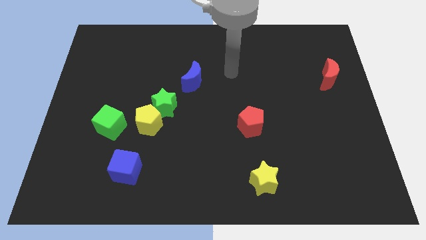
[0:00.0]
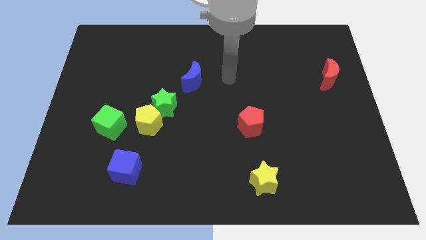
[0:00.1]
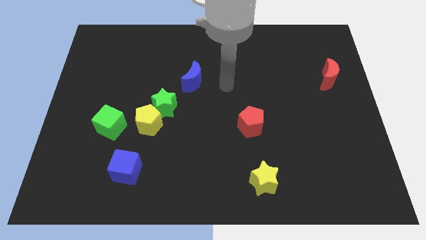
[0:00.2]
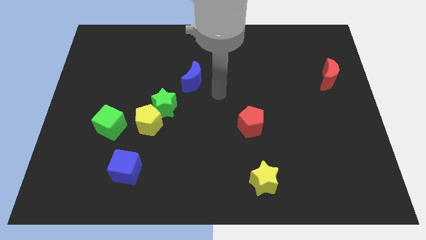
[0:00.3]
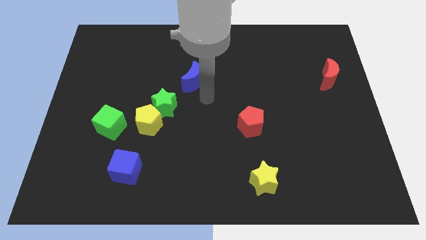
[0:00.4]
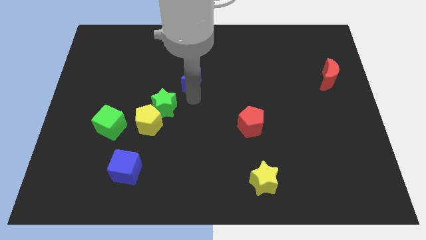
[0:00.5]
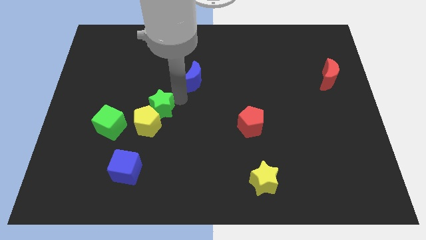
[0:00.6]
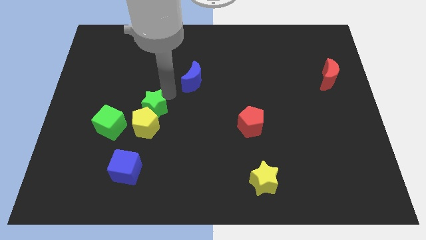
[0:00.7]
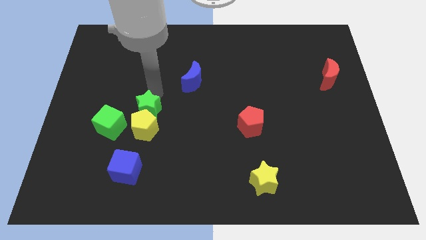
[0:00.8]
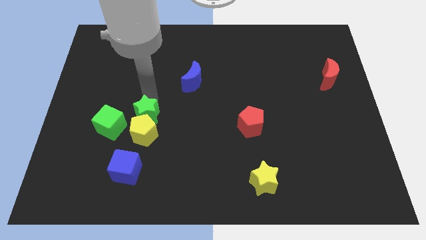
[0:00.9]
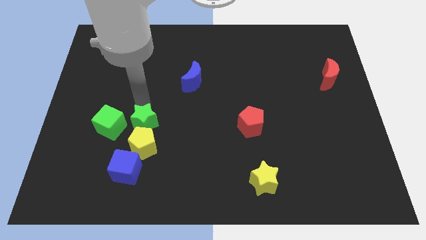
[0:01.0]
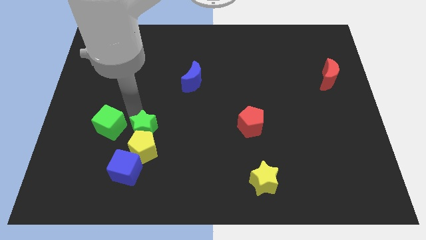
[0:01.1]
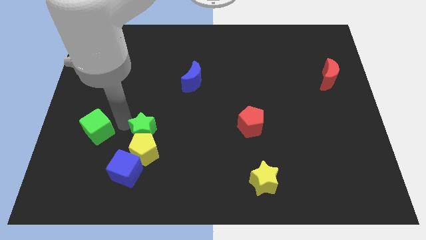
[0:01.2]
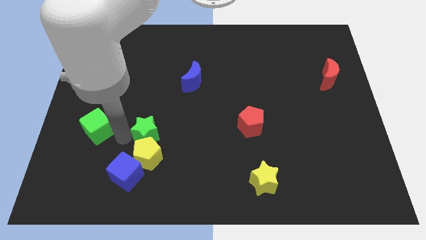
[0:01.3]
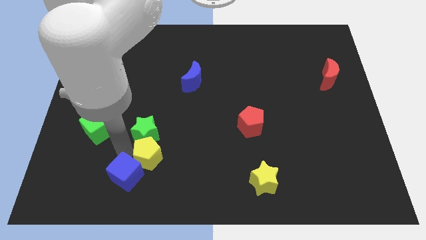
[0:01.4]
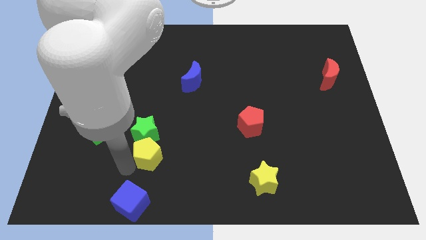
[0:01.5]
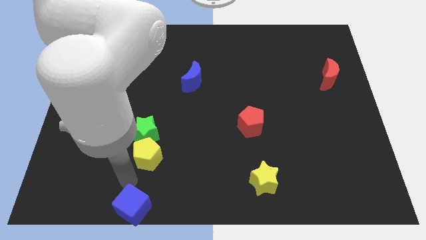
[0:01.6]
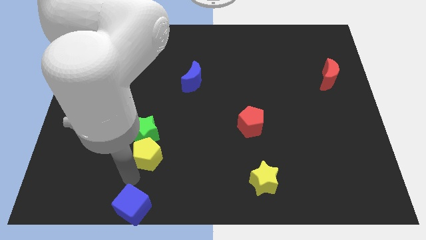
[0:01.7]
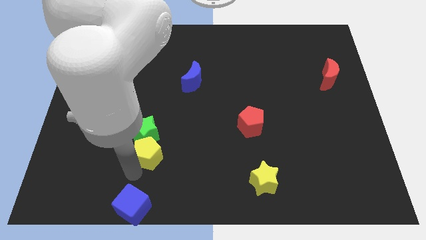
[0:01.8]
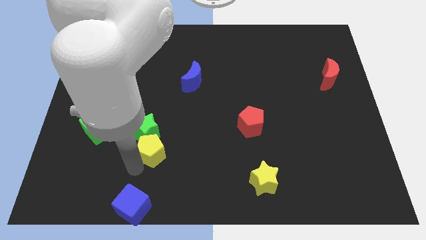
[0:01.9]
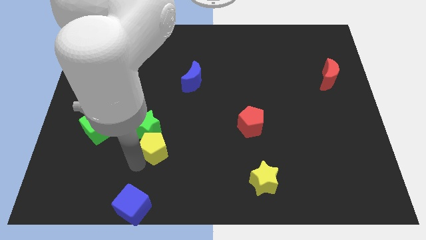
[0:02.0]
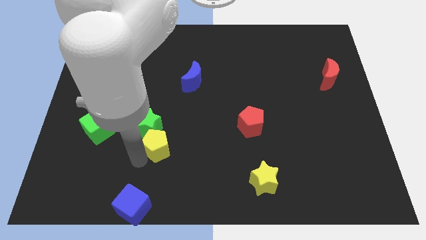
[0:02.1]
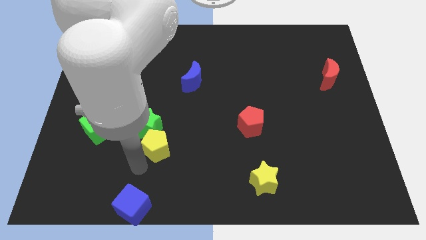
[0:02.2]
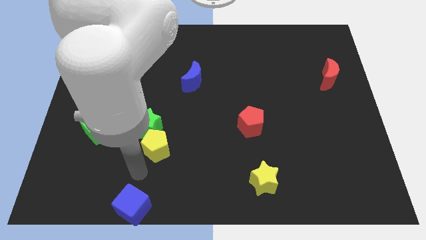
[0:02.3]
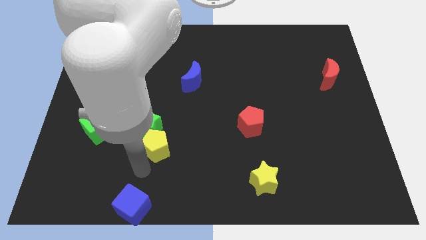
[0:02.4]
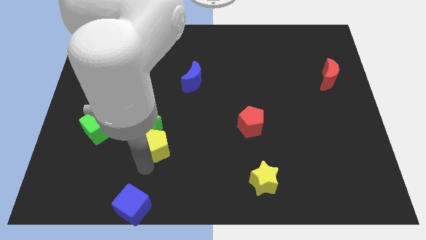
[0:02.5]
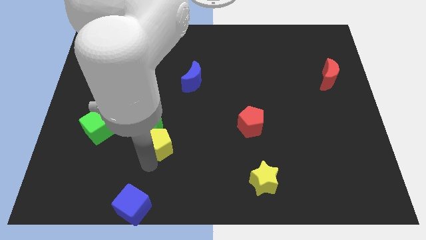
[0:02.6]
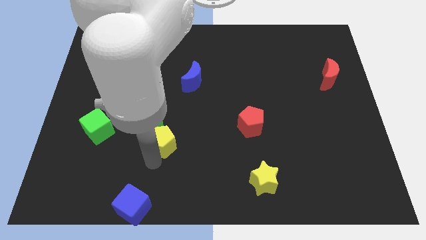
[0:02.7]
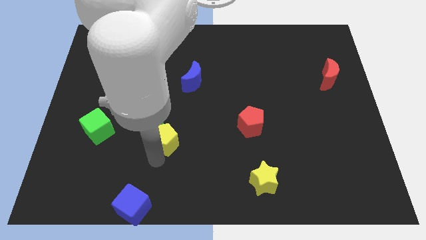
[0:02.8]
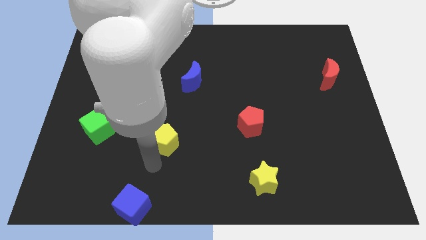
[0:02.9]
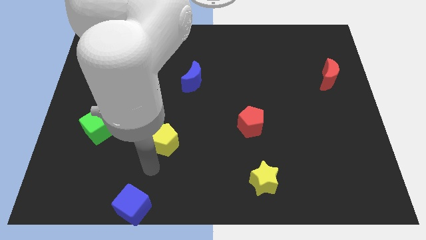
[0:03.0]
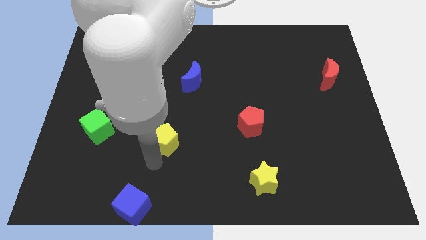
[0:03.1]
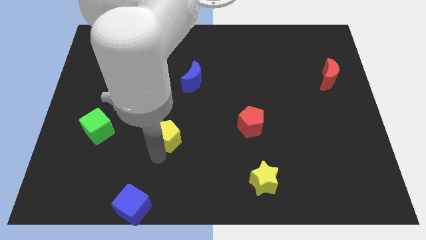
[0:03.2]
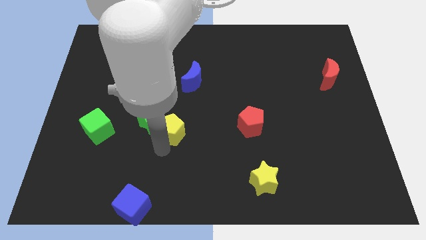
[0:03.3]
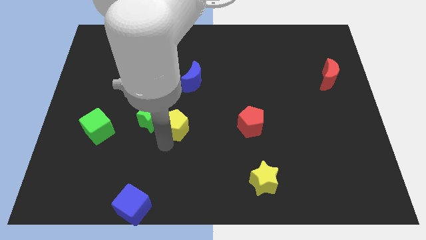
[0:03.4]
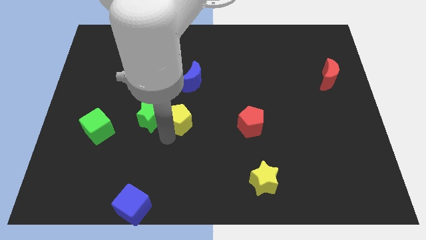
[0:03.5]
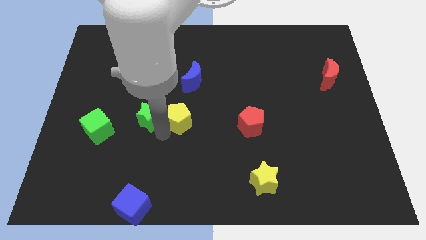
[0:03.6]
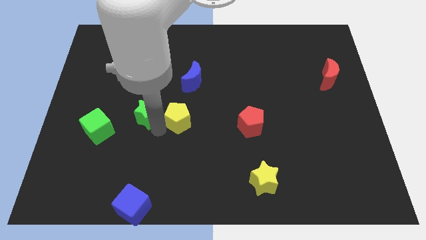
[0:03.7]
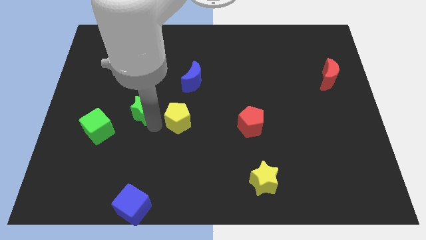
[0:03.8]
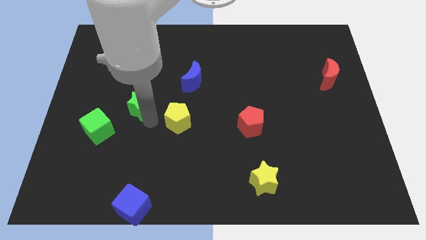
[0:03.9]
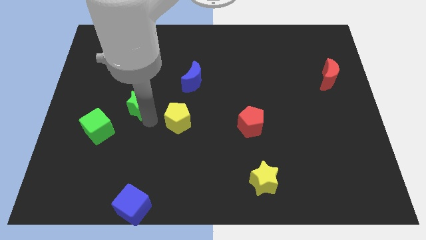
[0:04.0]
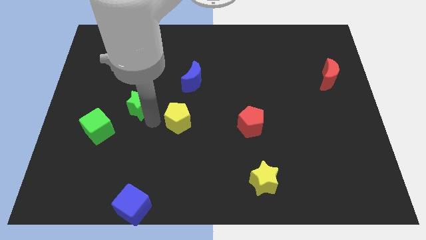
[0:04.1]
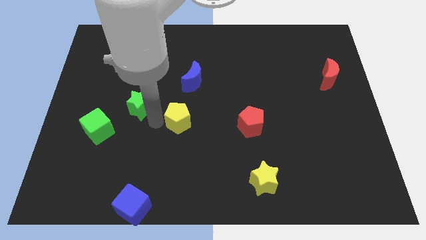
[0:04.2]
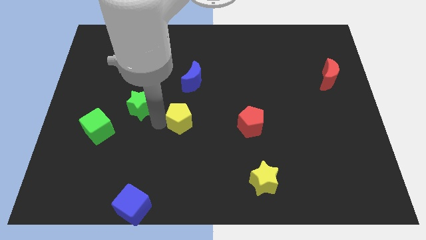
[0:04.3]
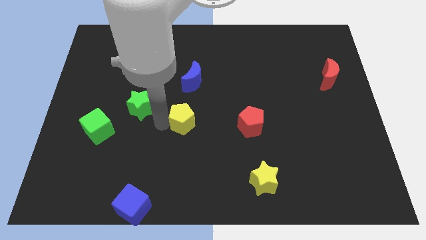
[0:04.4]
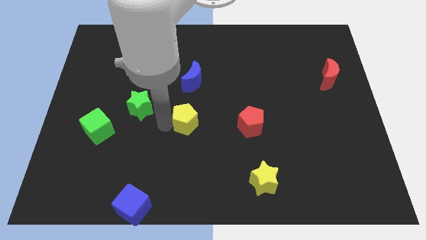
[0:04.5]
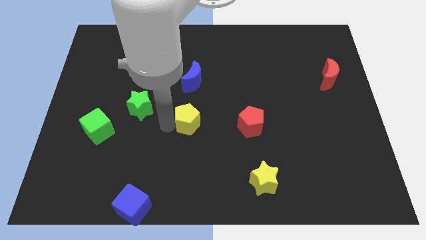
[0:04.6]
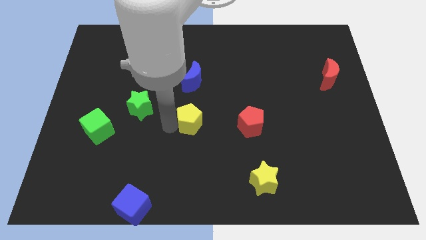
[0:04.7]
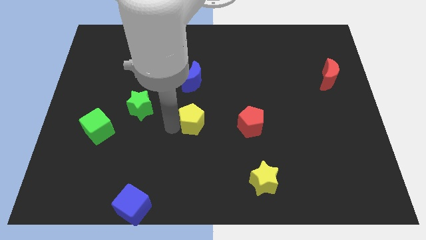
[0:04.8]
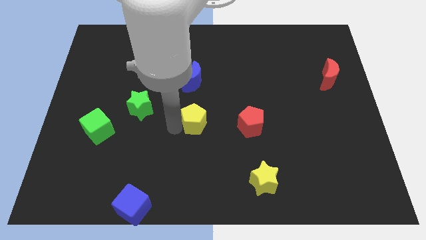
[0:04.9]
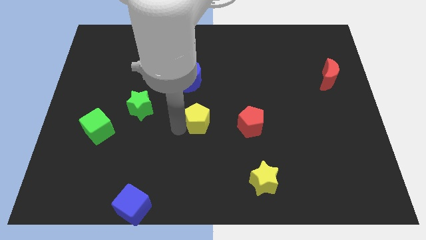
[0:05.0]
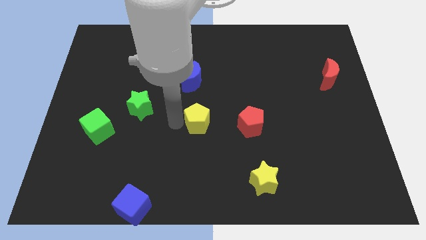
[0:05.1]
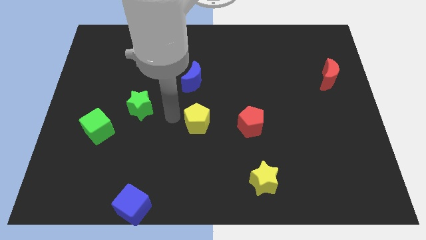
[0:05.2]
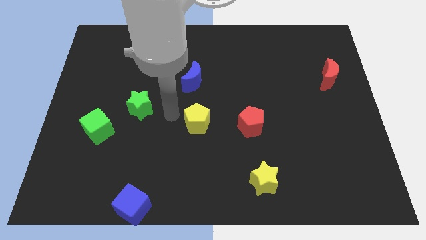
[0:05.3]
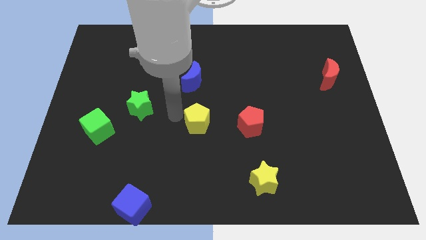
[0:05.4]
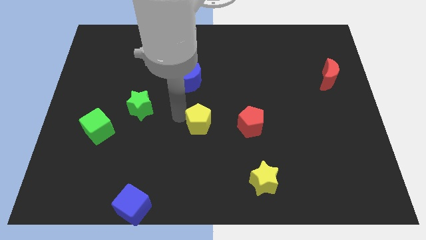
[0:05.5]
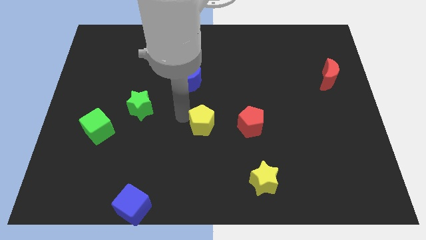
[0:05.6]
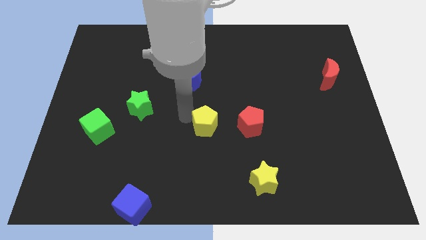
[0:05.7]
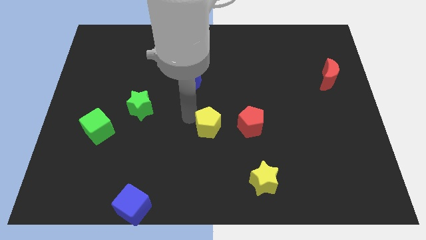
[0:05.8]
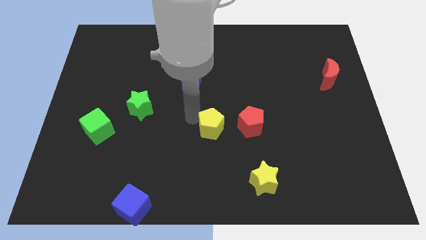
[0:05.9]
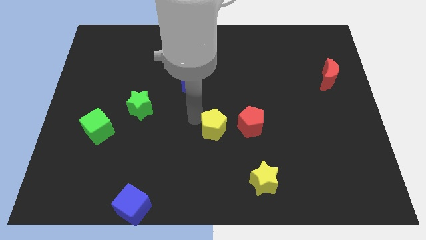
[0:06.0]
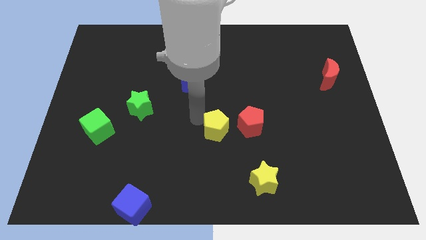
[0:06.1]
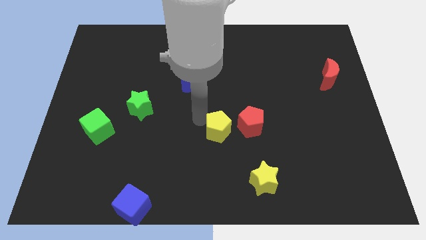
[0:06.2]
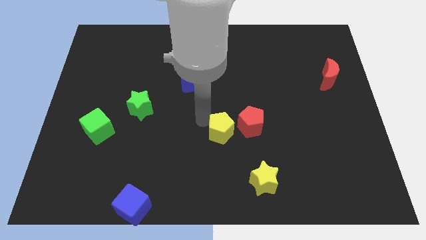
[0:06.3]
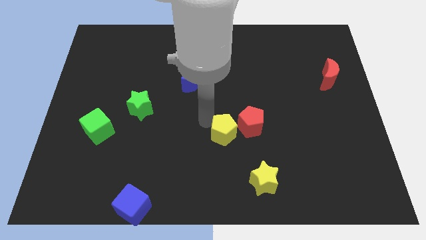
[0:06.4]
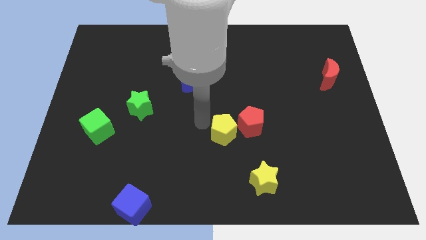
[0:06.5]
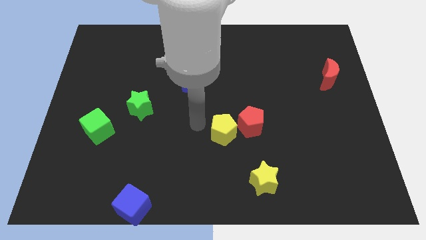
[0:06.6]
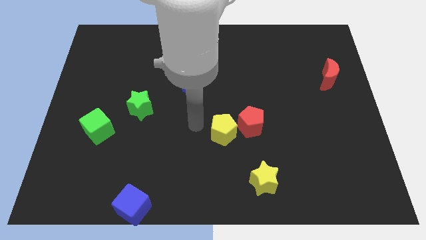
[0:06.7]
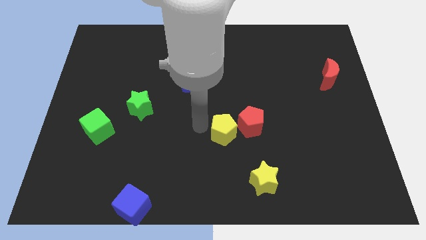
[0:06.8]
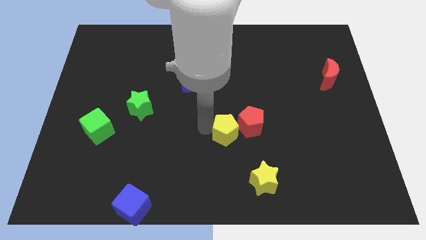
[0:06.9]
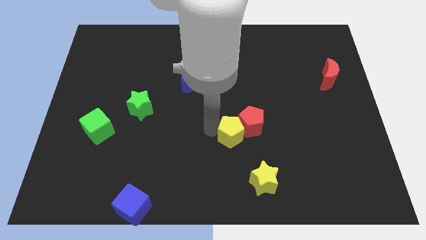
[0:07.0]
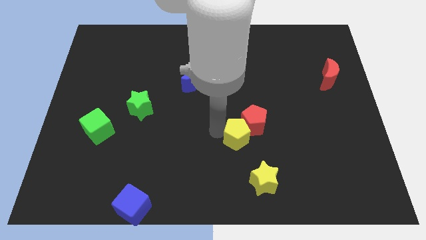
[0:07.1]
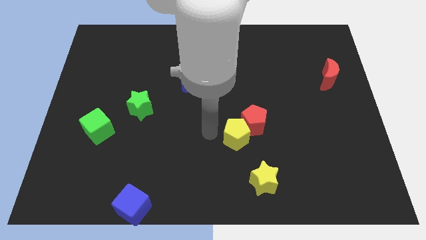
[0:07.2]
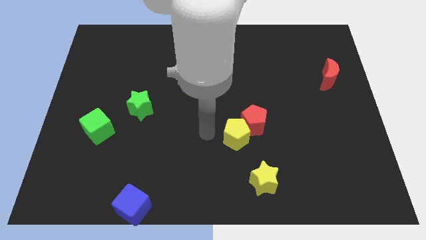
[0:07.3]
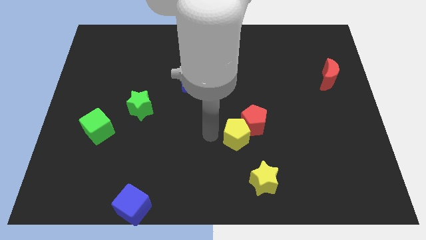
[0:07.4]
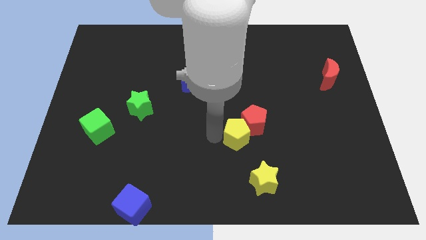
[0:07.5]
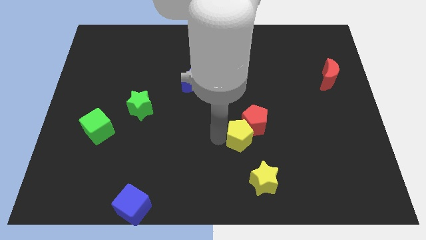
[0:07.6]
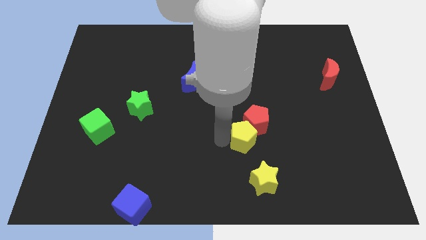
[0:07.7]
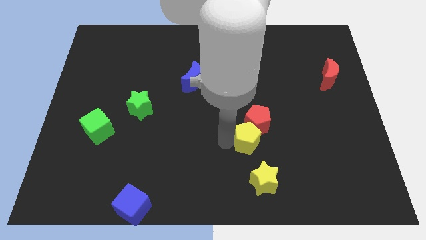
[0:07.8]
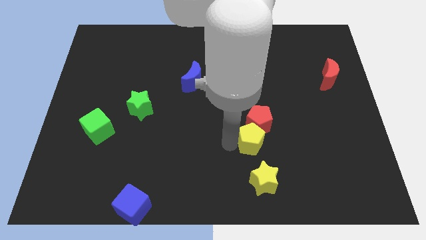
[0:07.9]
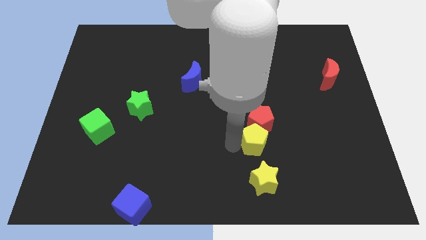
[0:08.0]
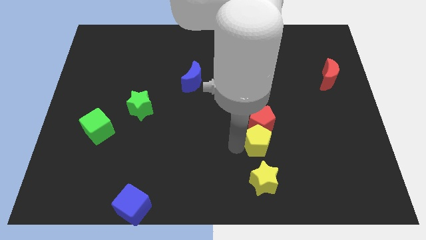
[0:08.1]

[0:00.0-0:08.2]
move the yellow pentagon to the bottom right side of the red pentagon
